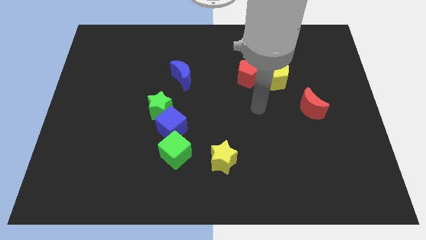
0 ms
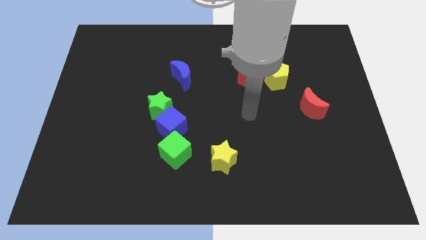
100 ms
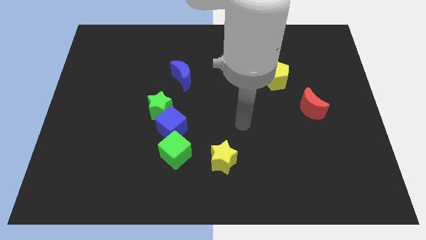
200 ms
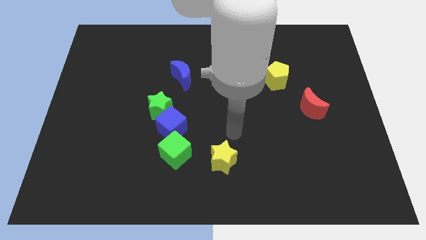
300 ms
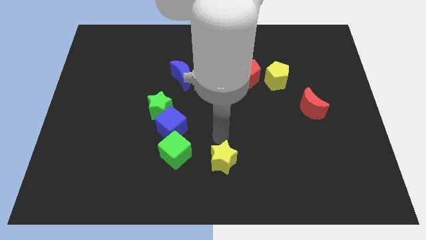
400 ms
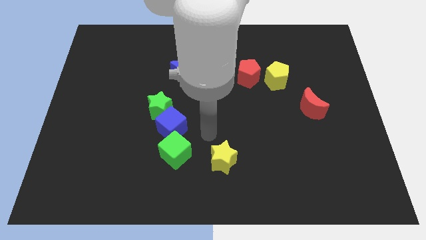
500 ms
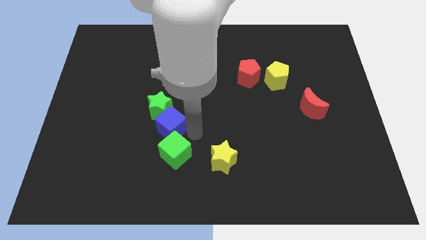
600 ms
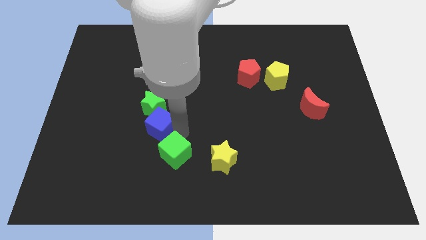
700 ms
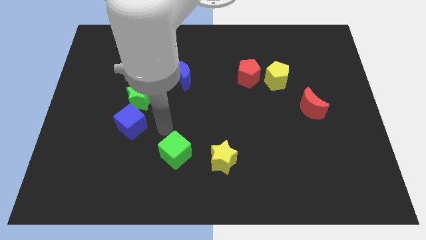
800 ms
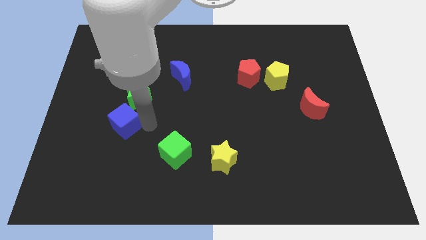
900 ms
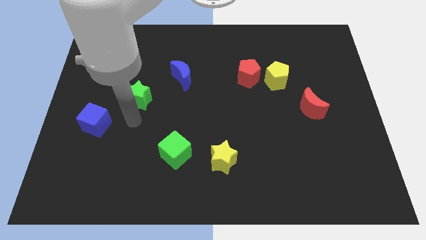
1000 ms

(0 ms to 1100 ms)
separate the green star from the blue cube

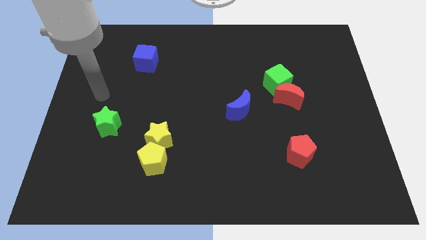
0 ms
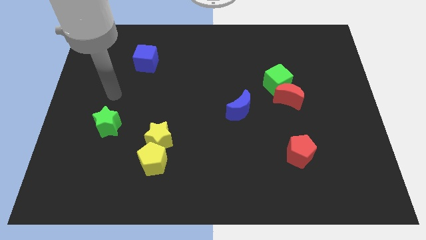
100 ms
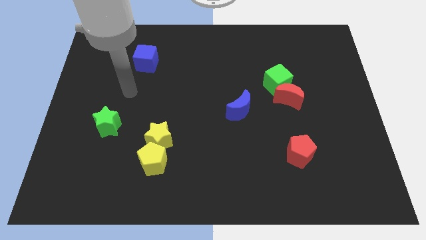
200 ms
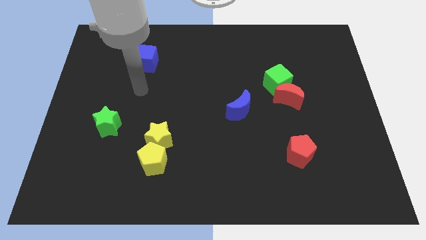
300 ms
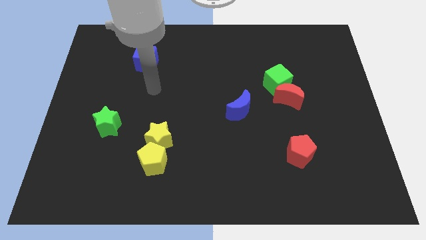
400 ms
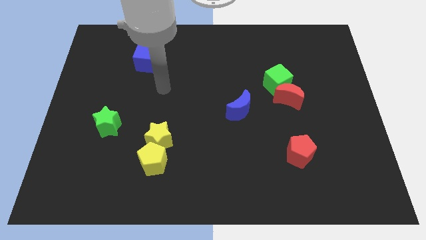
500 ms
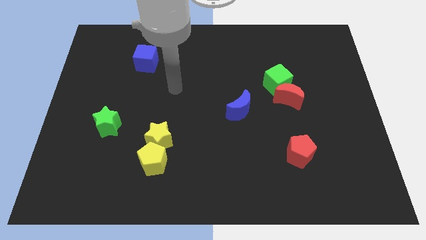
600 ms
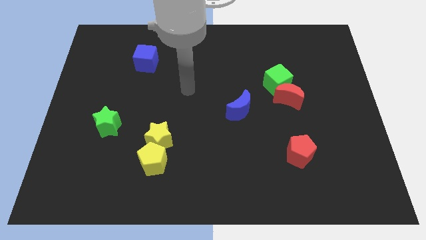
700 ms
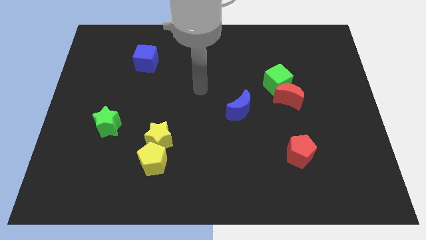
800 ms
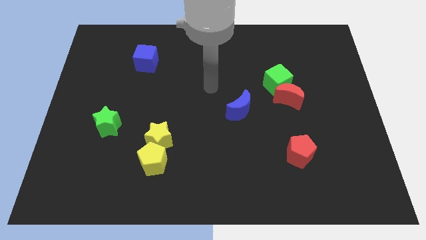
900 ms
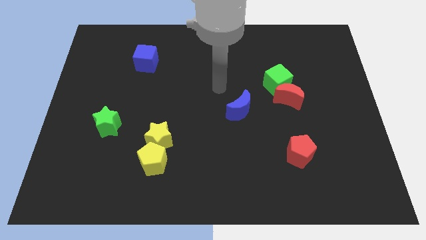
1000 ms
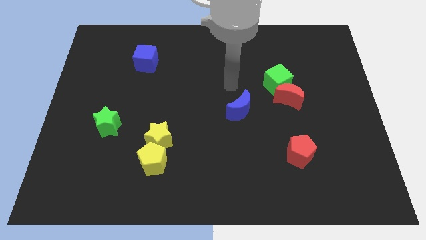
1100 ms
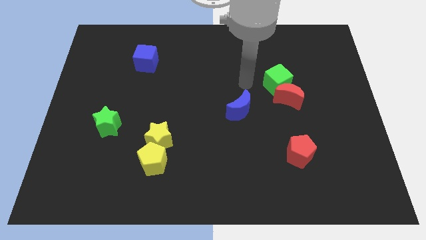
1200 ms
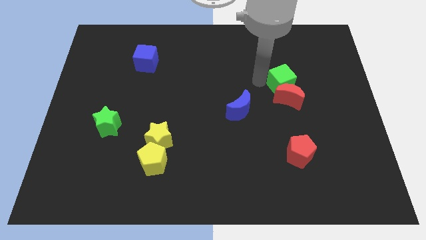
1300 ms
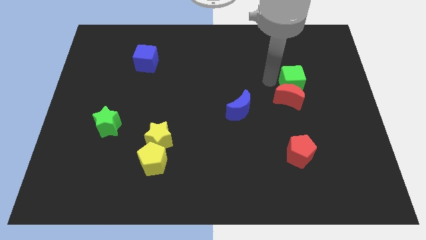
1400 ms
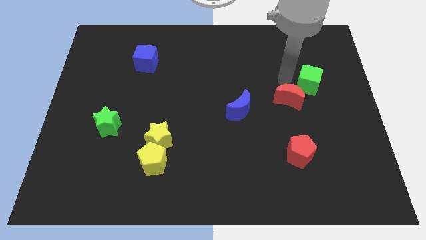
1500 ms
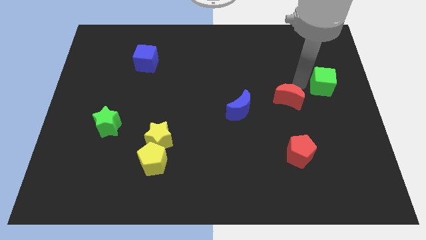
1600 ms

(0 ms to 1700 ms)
pull the red moon apart from the green cube

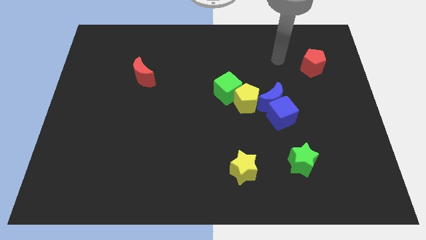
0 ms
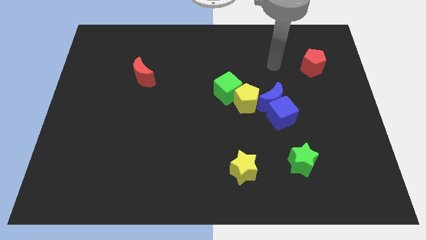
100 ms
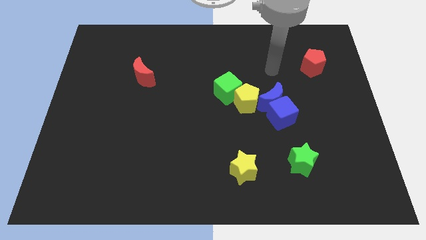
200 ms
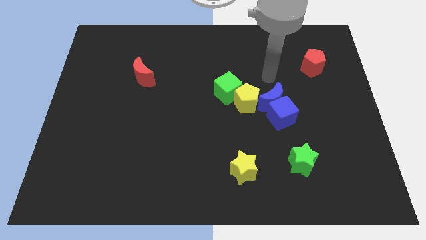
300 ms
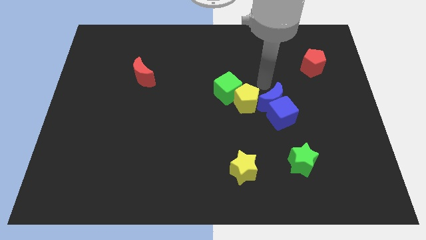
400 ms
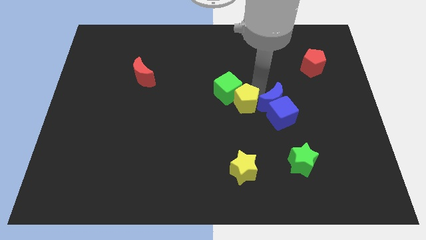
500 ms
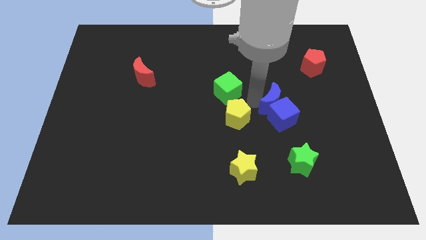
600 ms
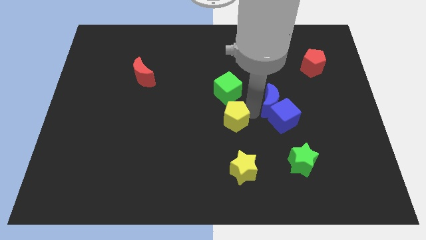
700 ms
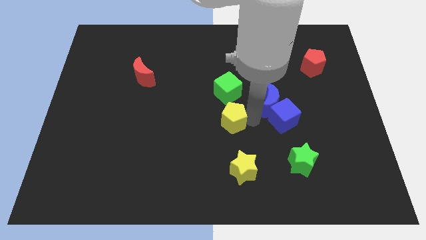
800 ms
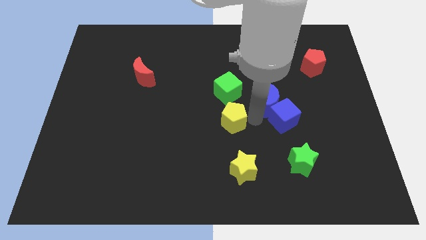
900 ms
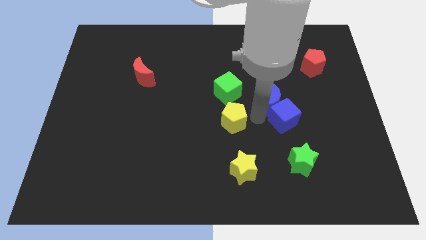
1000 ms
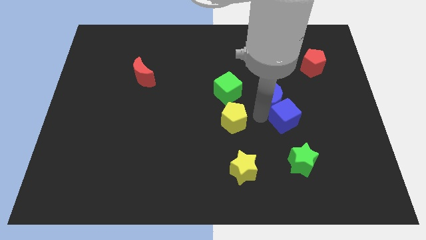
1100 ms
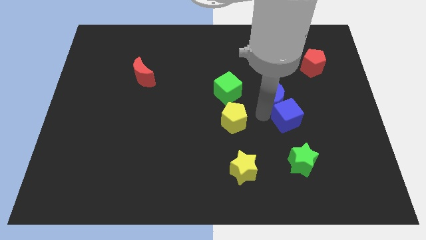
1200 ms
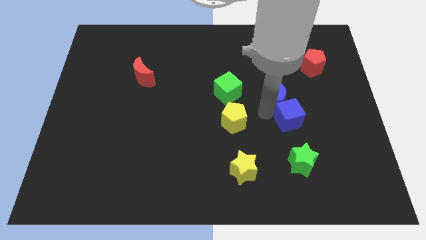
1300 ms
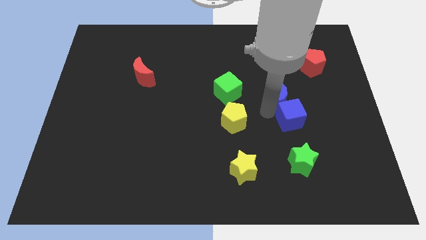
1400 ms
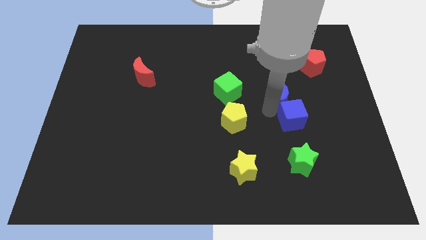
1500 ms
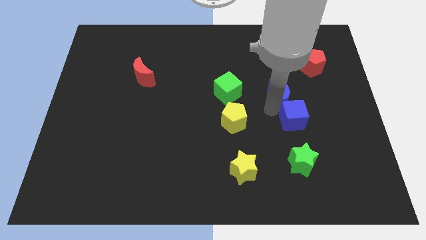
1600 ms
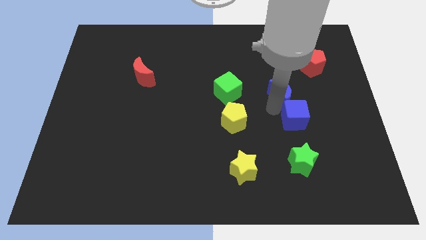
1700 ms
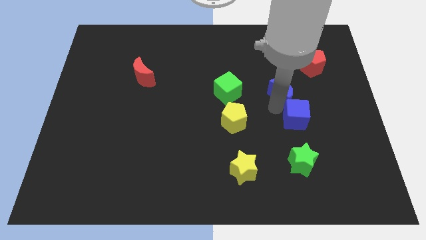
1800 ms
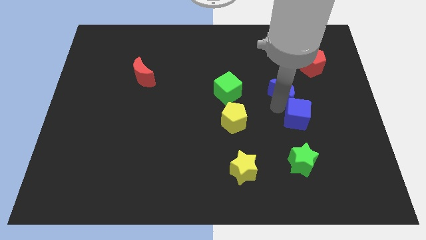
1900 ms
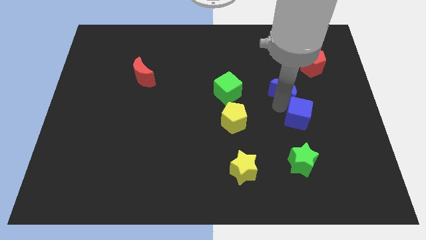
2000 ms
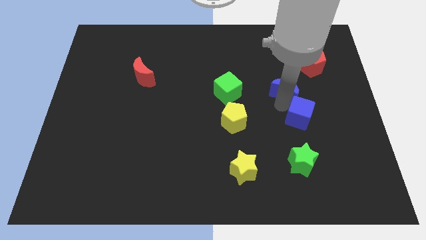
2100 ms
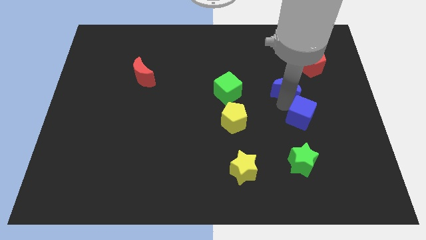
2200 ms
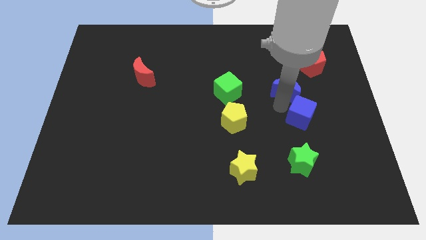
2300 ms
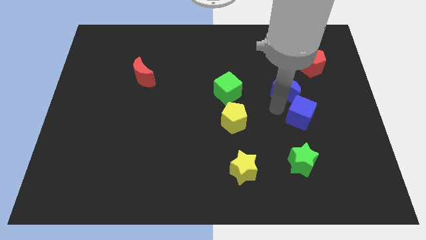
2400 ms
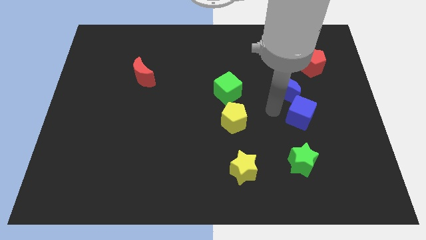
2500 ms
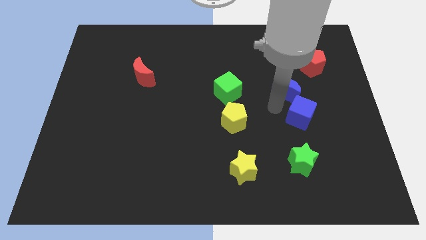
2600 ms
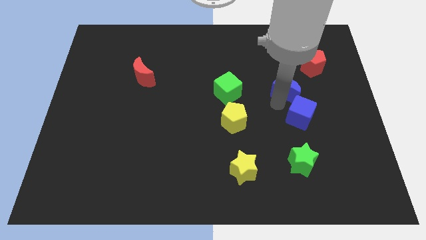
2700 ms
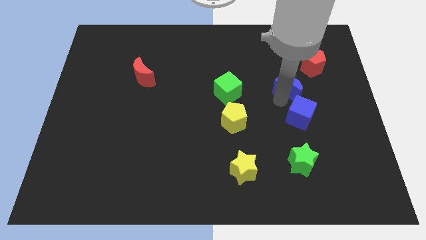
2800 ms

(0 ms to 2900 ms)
move the blue moon away from the blue cube and yellow pentagon

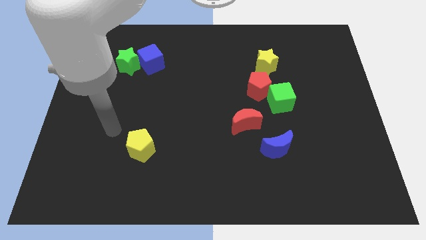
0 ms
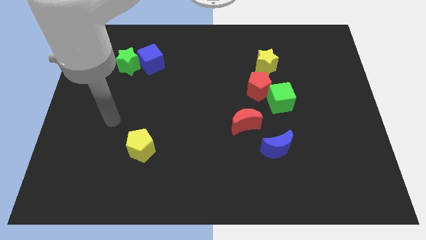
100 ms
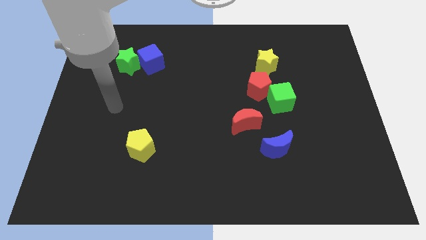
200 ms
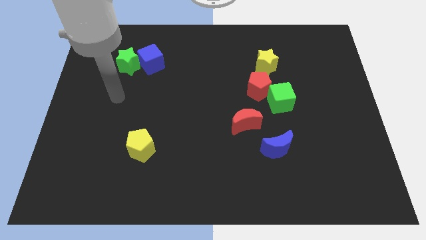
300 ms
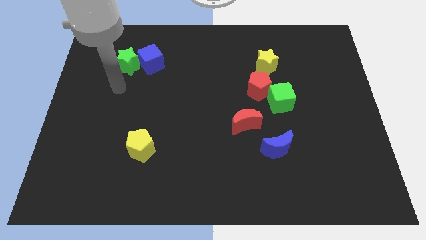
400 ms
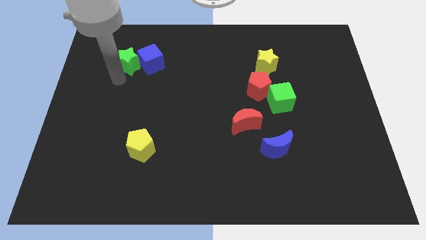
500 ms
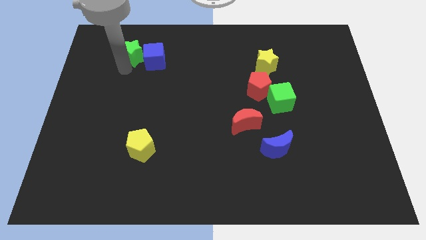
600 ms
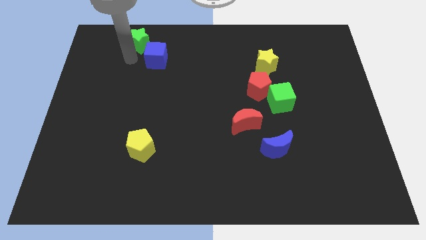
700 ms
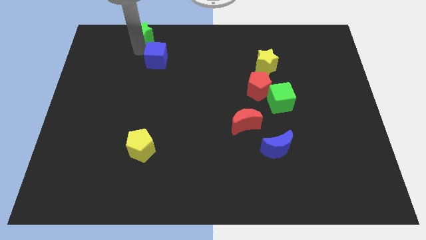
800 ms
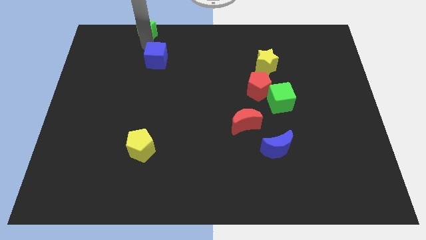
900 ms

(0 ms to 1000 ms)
move the blue cube away from the green star

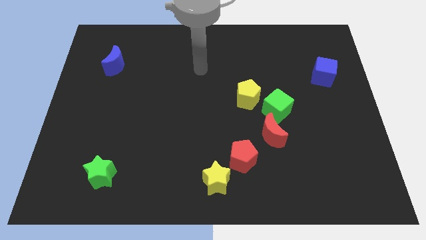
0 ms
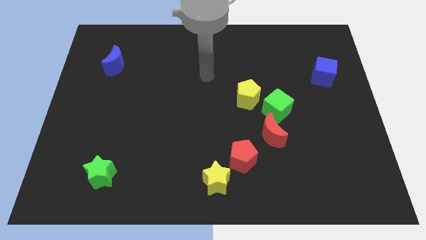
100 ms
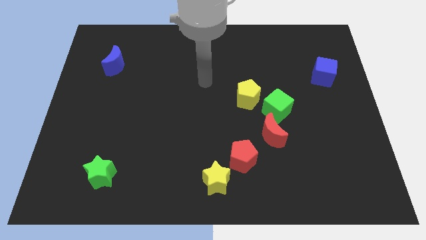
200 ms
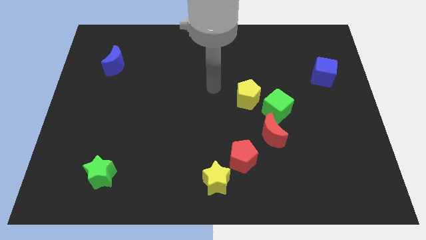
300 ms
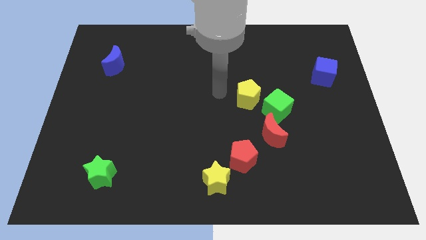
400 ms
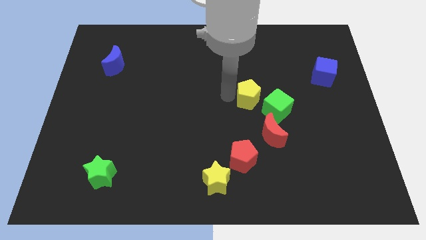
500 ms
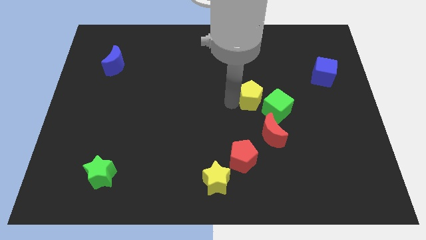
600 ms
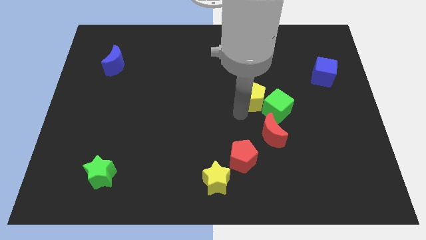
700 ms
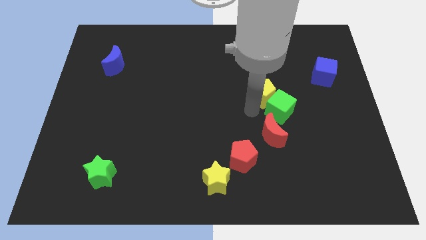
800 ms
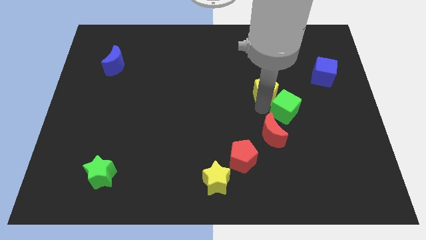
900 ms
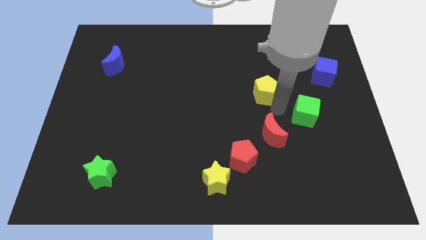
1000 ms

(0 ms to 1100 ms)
pull the yellow pentagon apart from the green cube

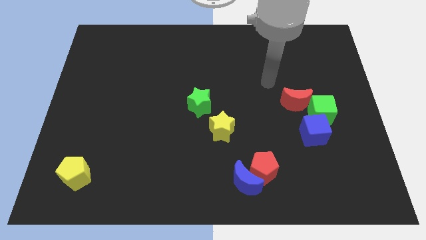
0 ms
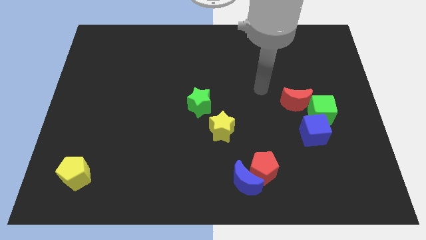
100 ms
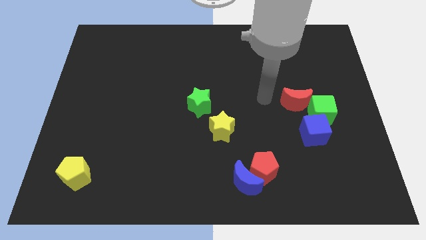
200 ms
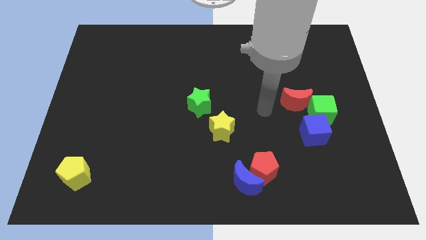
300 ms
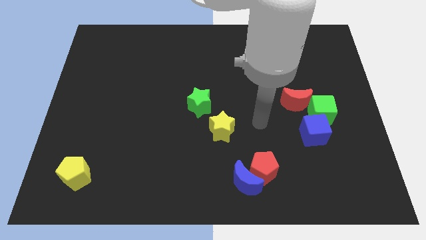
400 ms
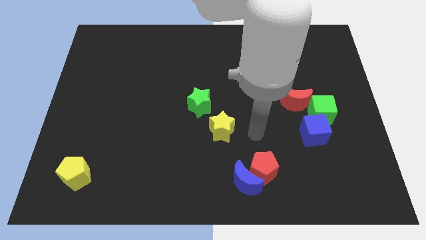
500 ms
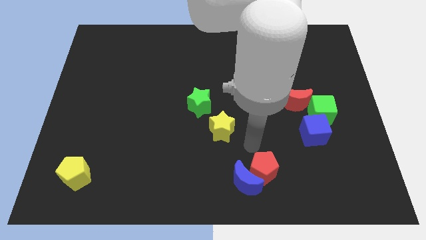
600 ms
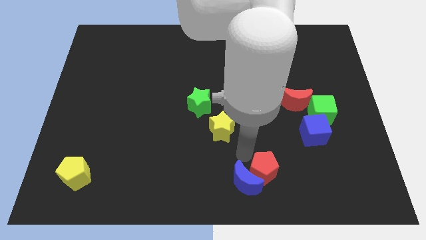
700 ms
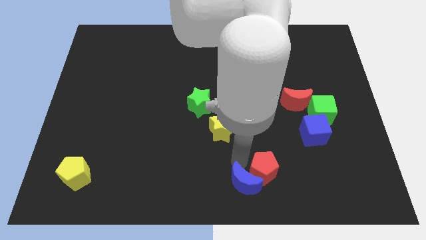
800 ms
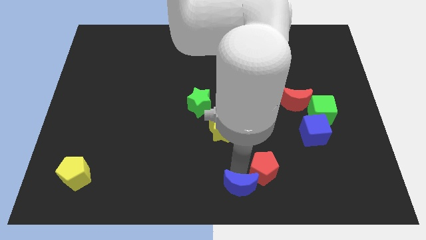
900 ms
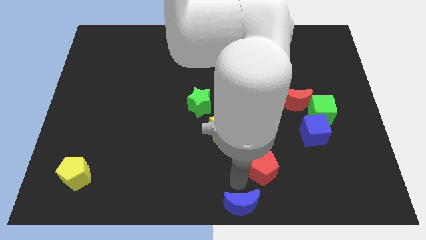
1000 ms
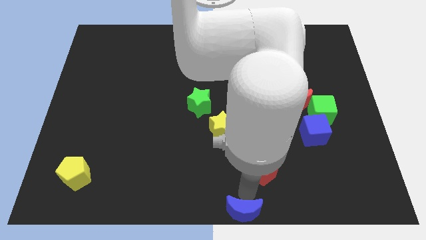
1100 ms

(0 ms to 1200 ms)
move the red pentagon away from the blue moon
